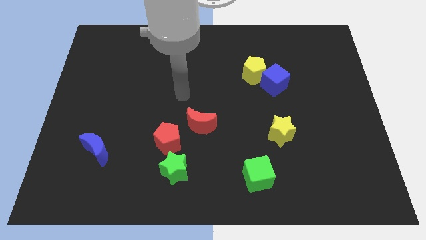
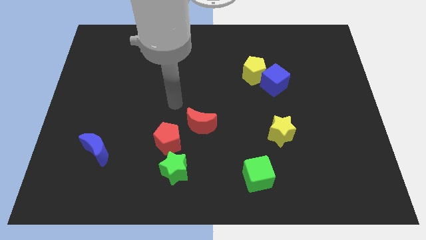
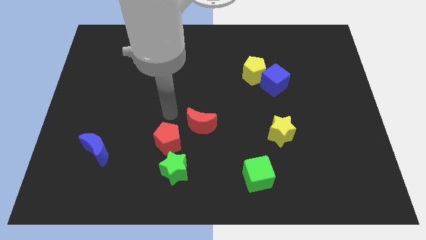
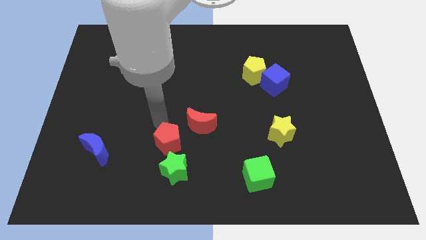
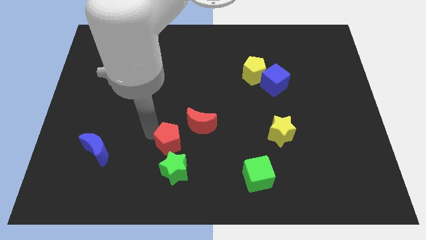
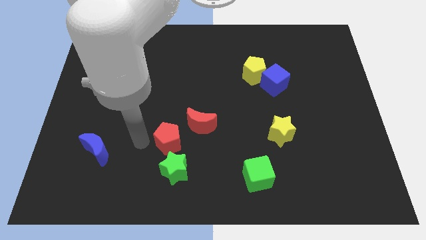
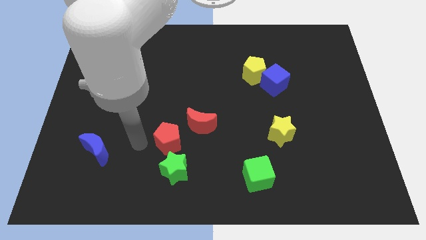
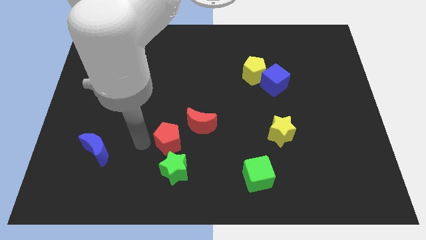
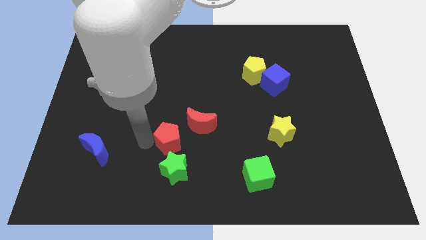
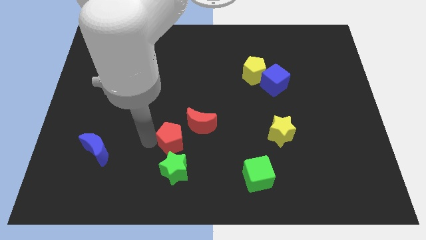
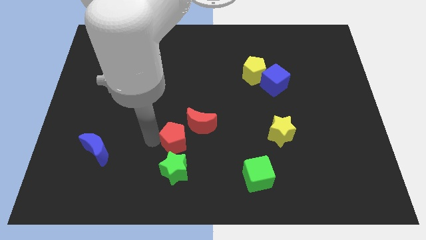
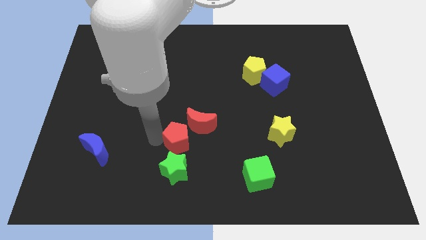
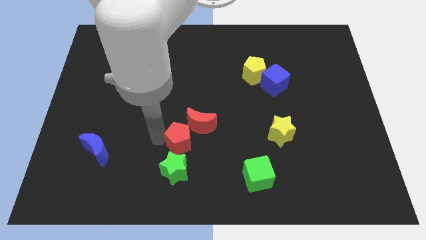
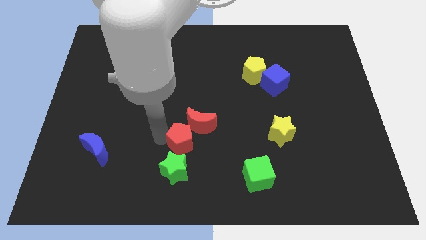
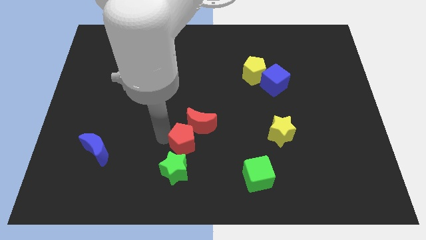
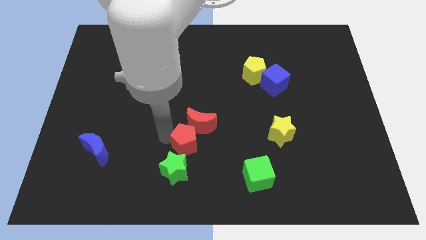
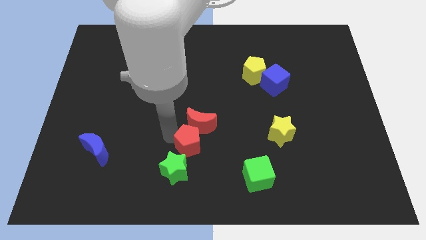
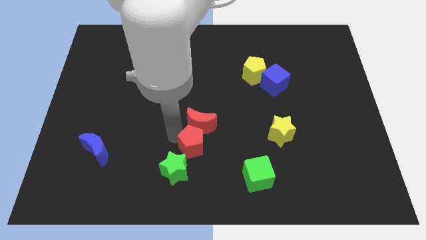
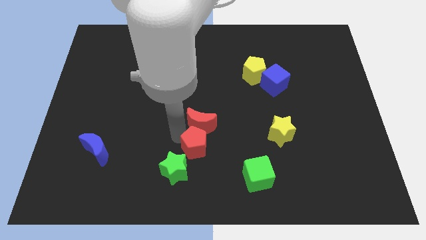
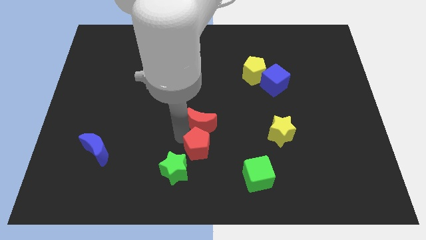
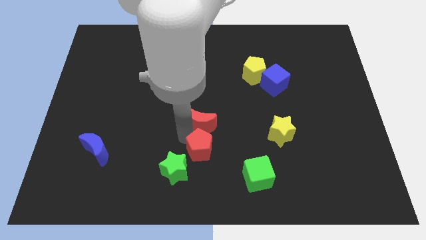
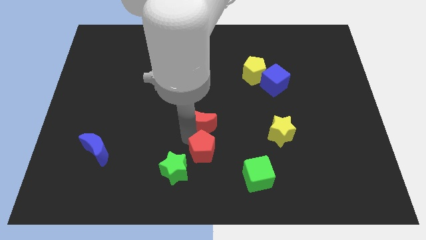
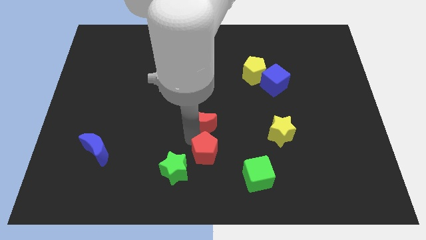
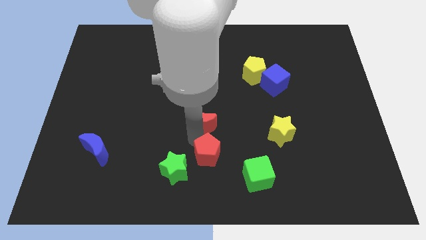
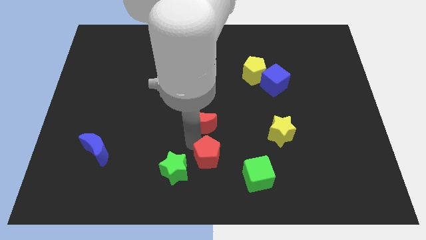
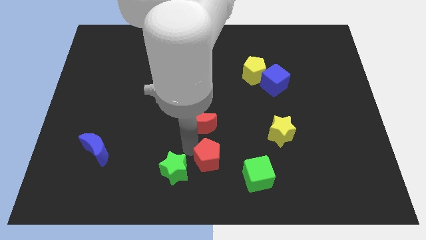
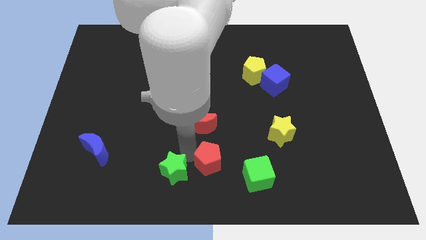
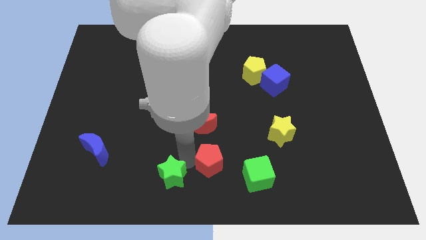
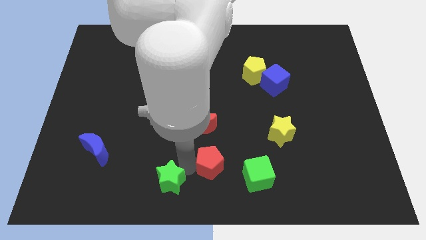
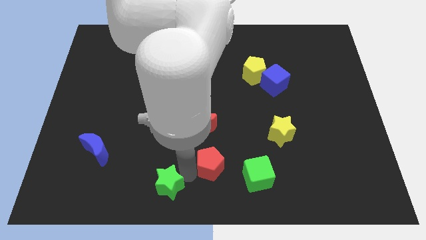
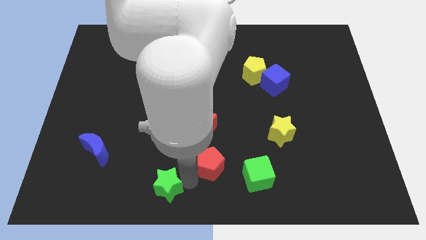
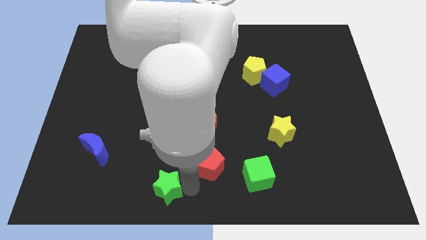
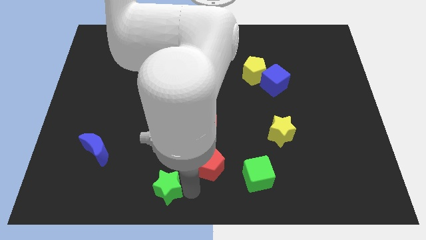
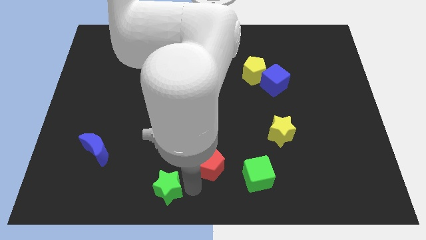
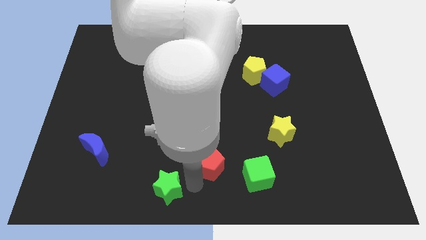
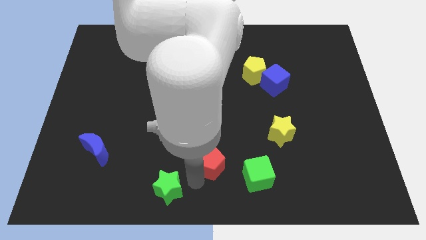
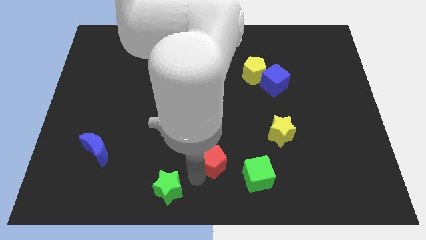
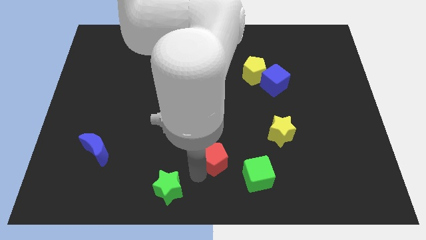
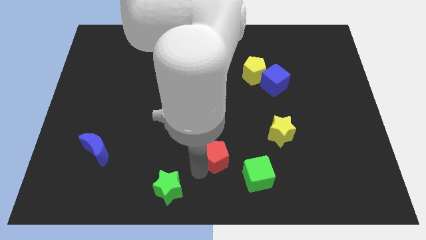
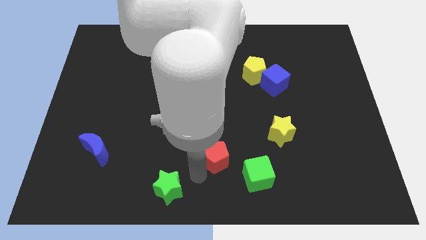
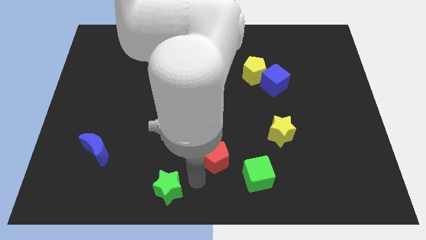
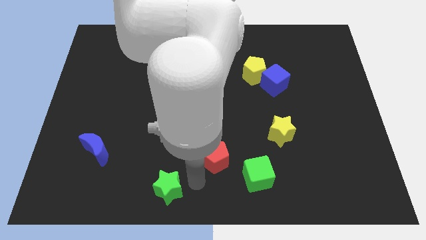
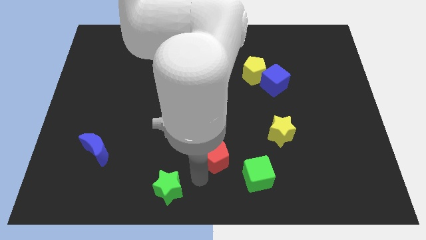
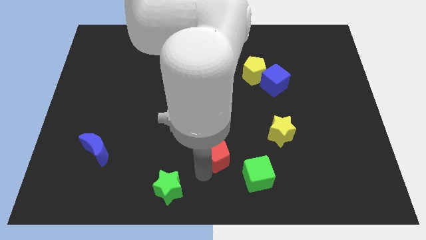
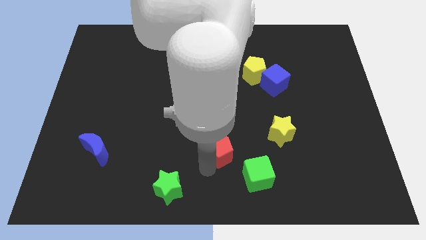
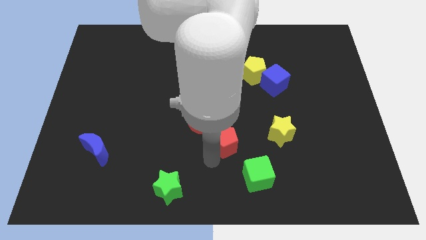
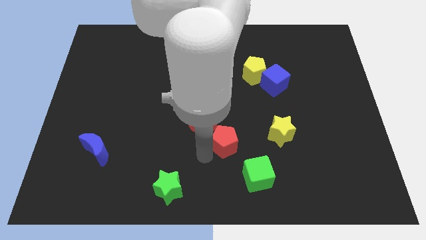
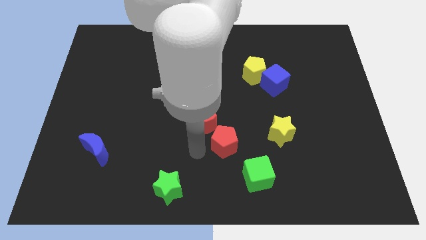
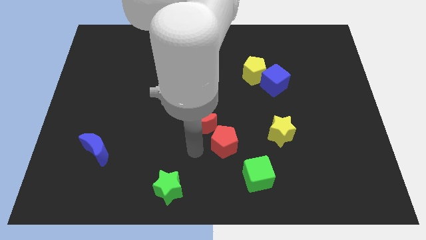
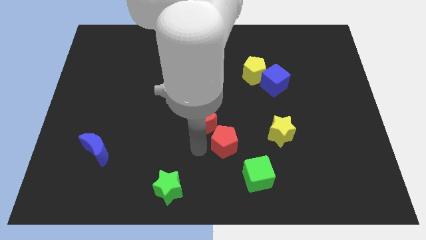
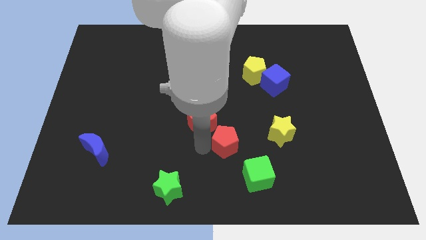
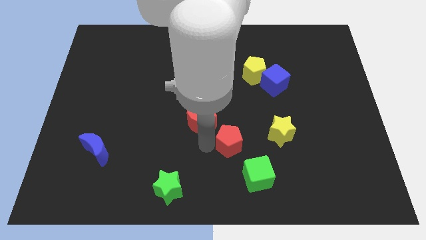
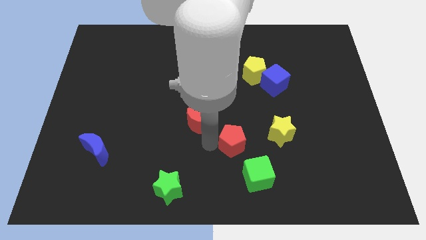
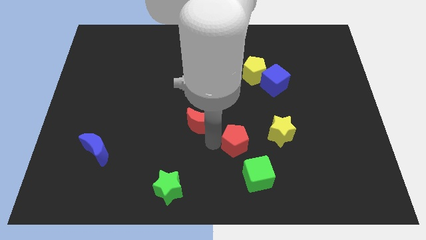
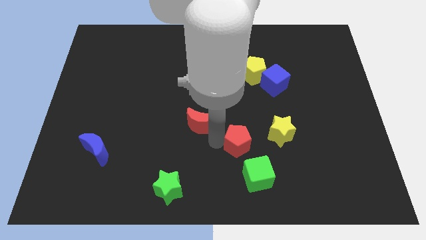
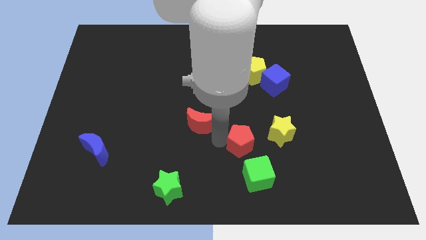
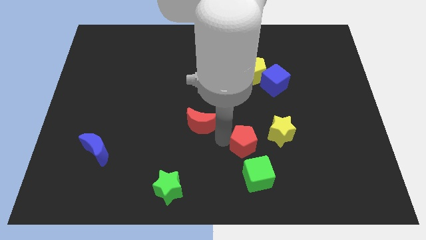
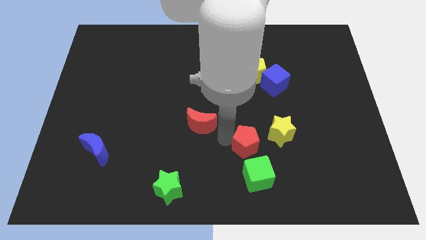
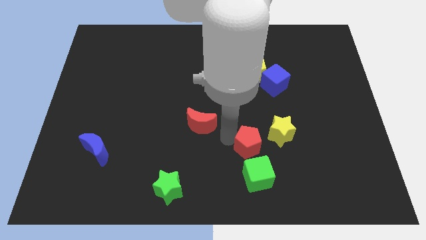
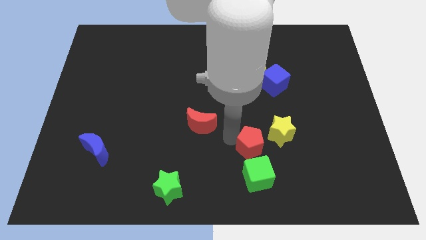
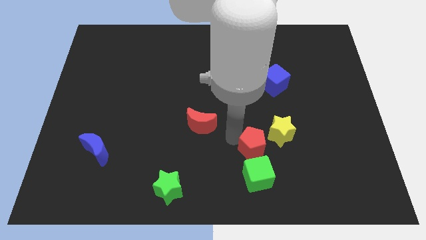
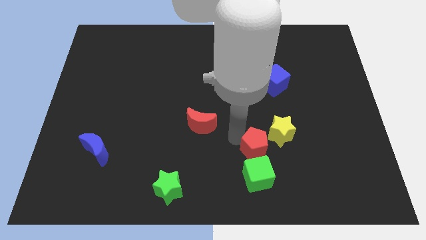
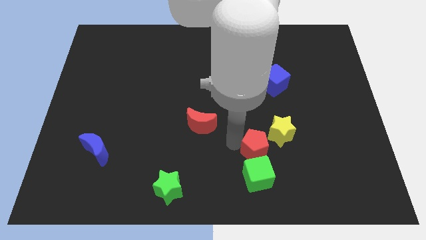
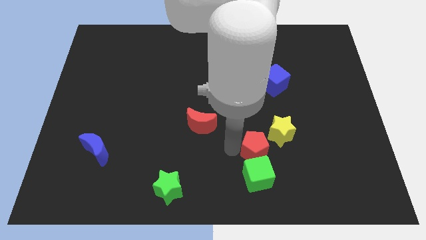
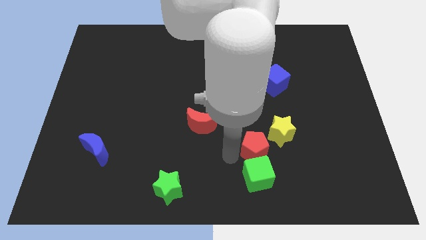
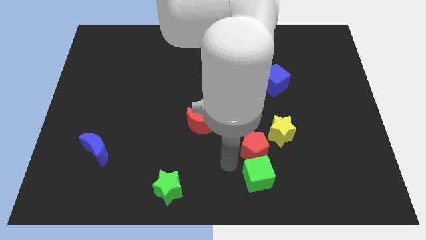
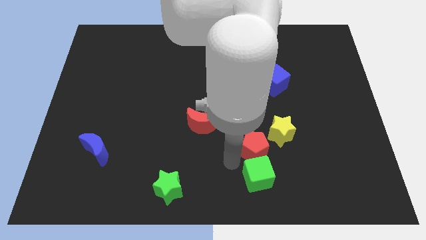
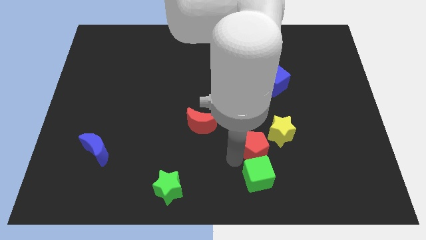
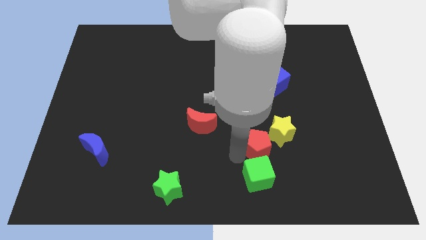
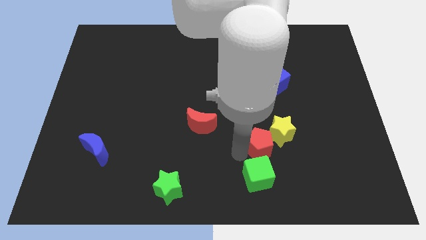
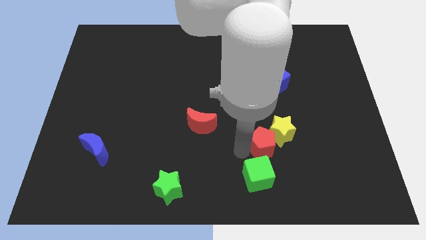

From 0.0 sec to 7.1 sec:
push the red pentagon close to the yellow star

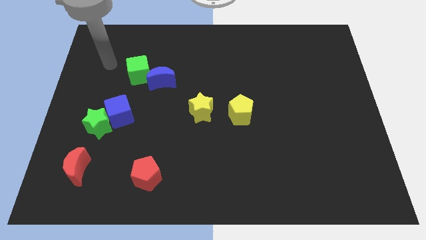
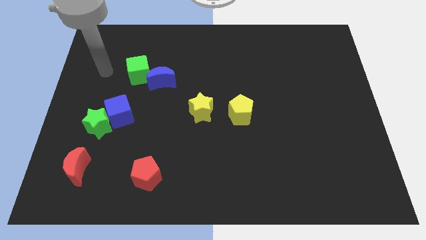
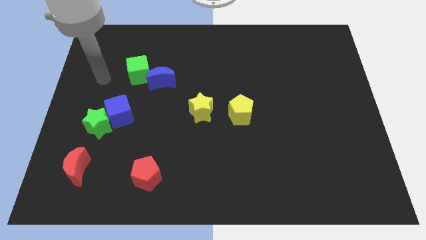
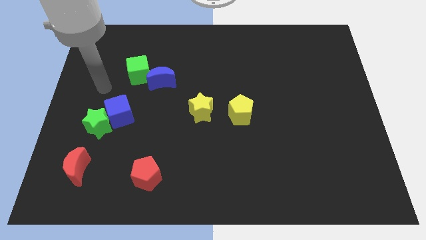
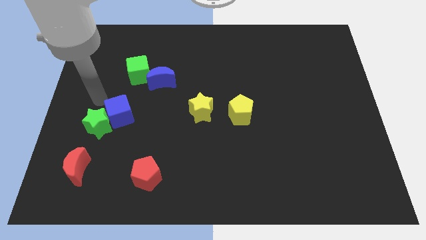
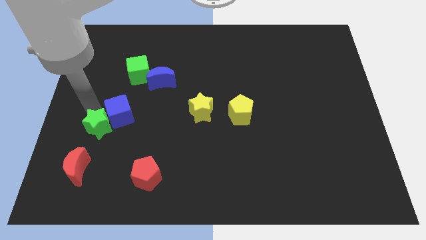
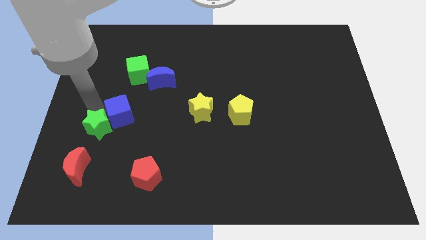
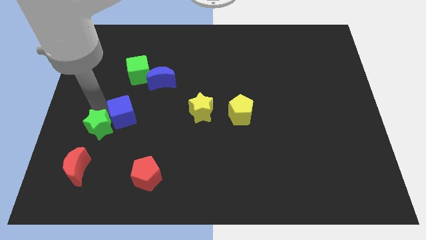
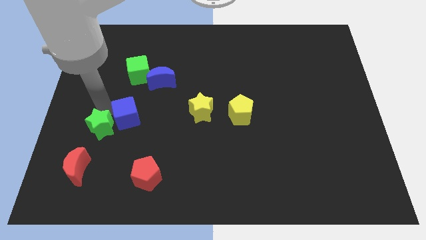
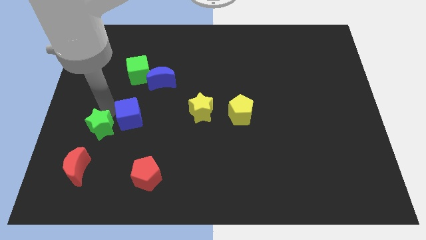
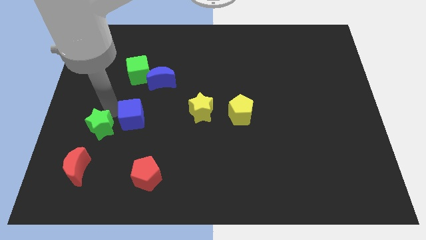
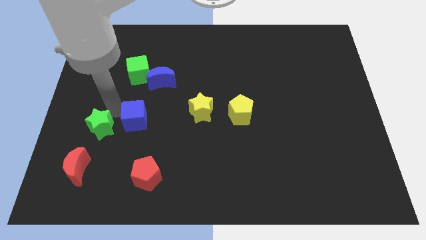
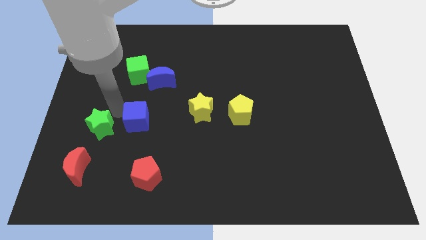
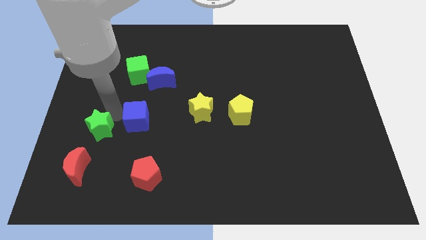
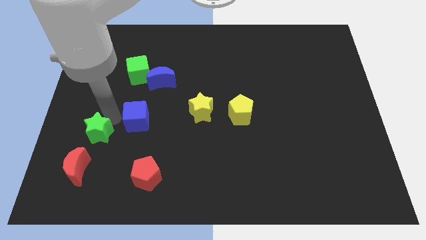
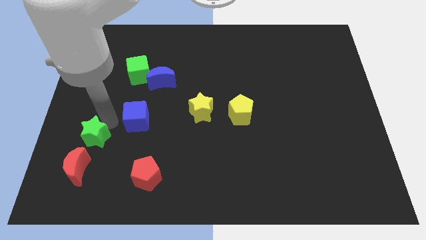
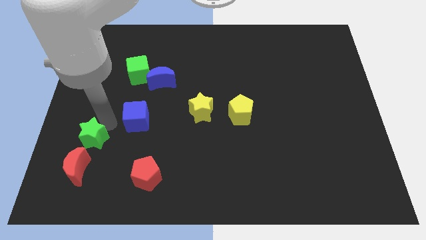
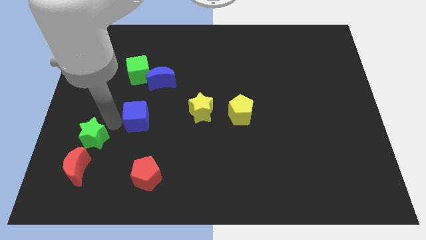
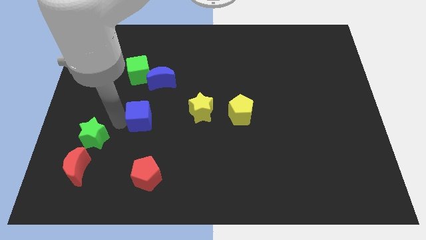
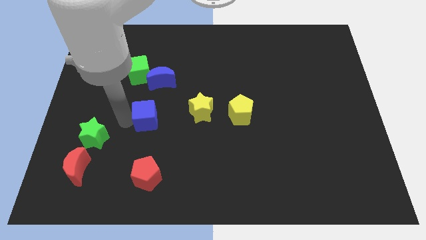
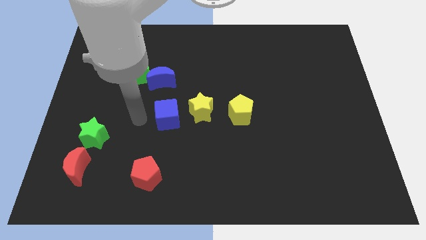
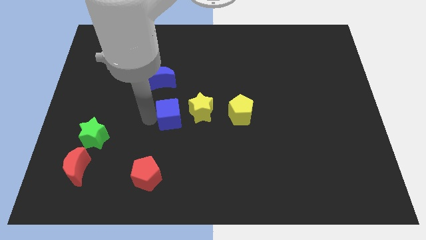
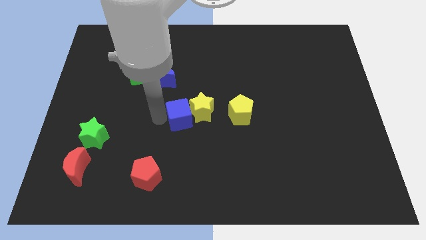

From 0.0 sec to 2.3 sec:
push the blue cube close to the yellow star
